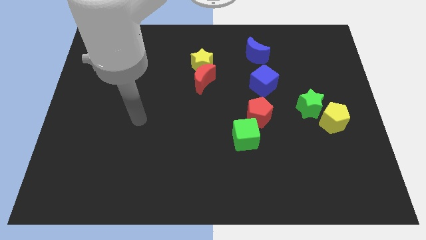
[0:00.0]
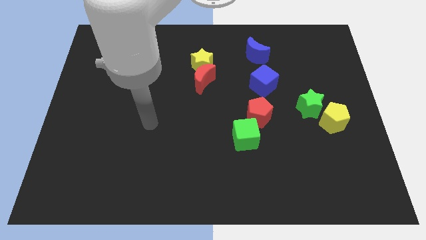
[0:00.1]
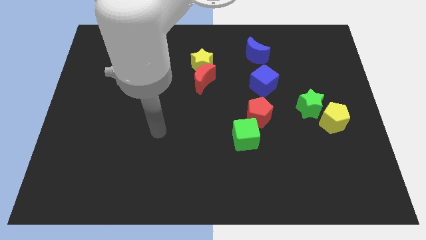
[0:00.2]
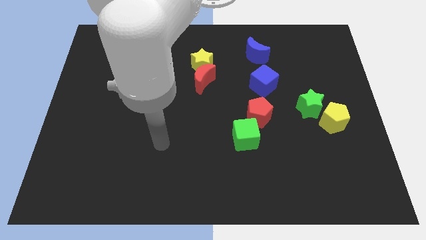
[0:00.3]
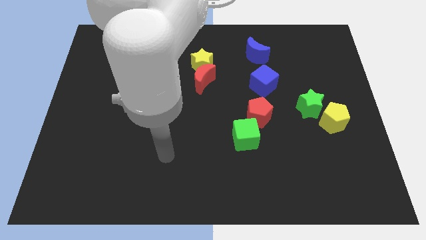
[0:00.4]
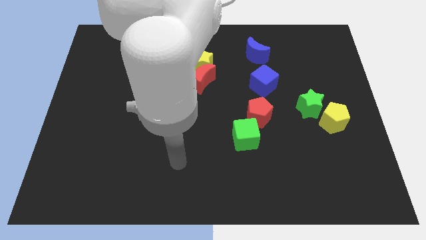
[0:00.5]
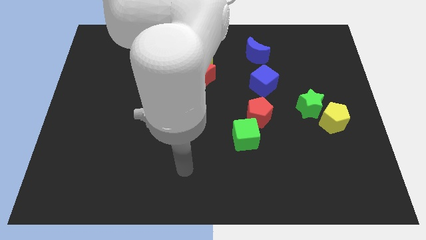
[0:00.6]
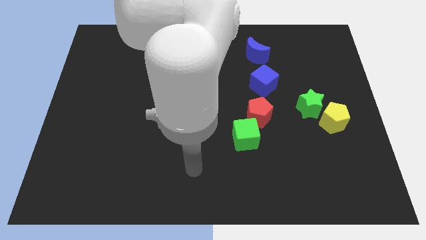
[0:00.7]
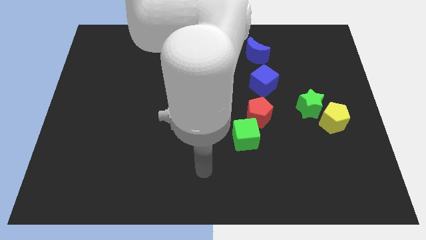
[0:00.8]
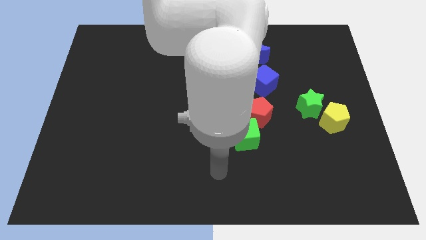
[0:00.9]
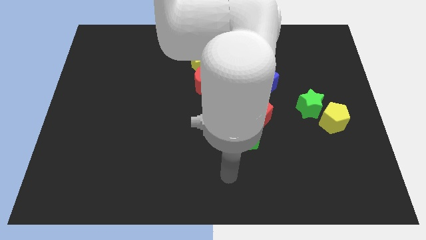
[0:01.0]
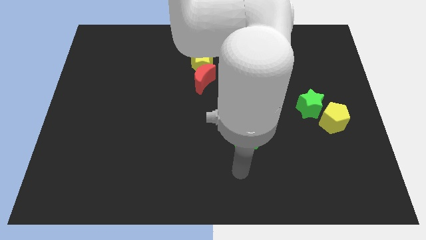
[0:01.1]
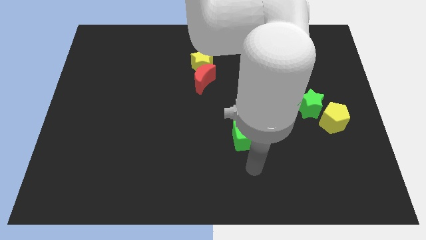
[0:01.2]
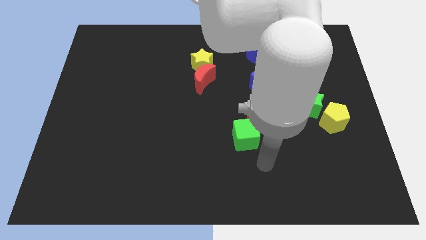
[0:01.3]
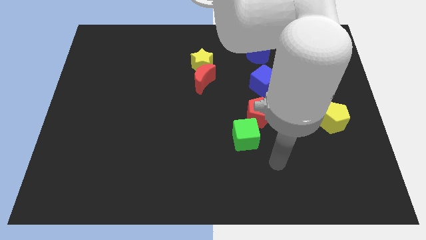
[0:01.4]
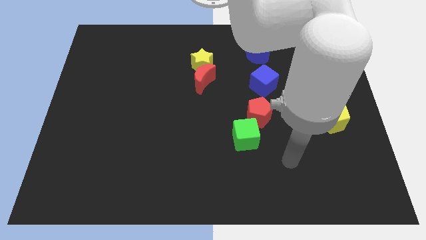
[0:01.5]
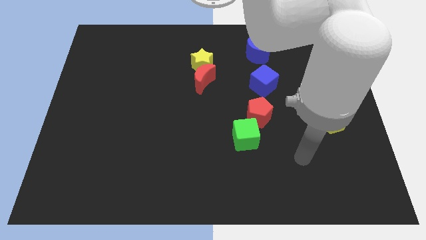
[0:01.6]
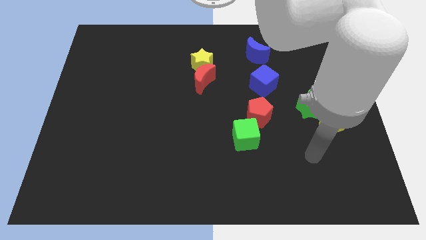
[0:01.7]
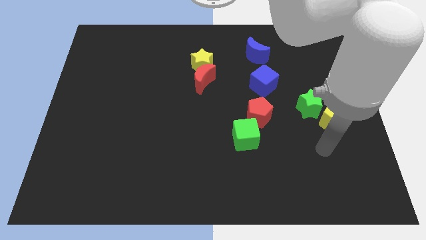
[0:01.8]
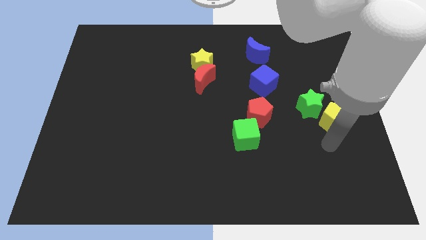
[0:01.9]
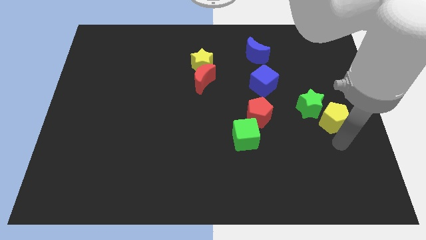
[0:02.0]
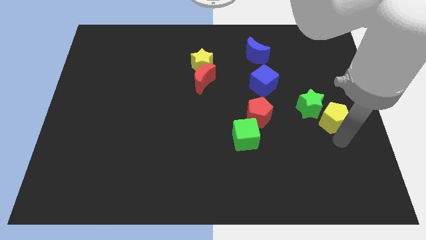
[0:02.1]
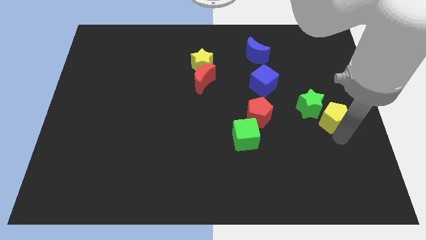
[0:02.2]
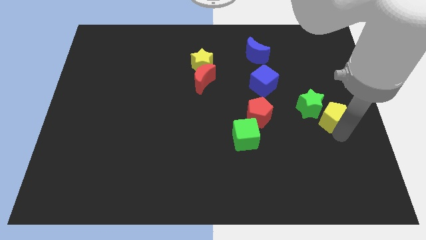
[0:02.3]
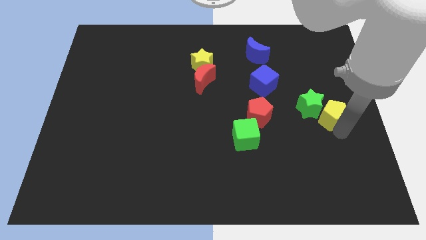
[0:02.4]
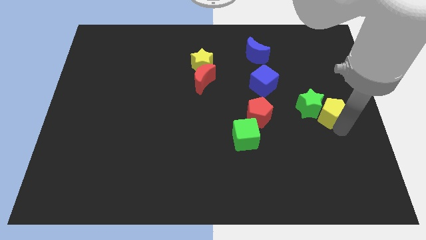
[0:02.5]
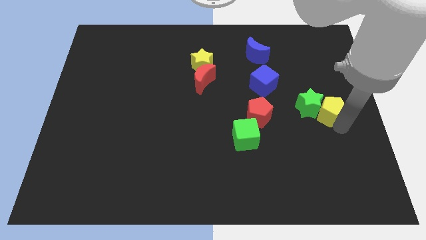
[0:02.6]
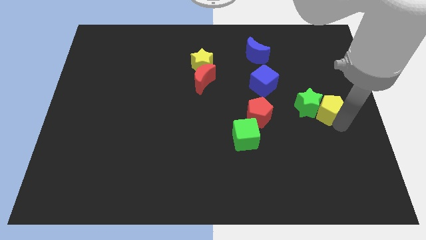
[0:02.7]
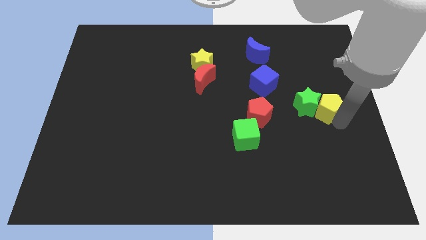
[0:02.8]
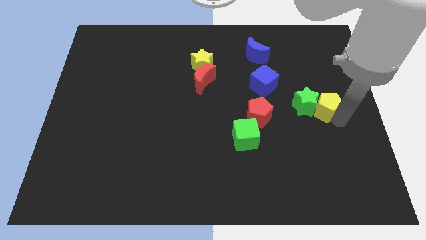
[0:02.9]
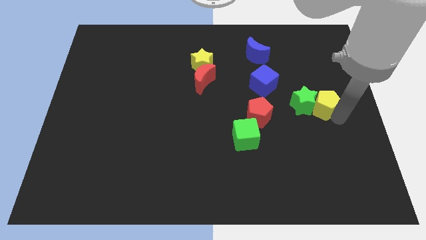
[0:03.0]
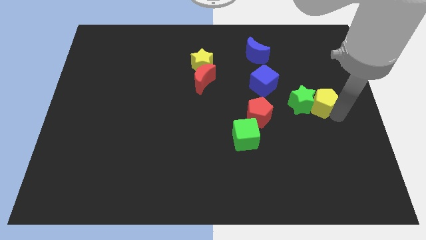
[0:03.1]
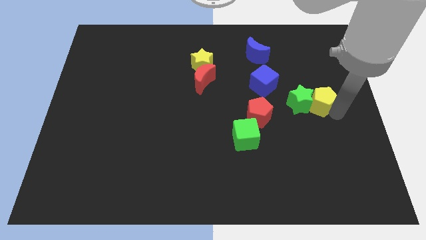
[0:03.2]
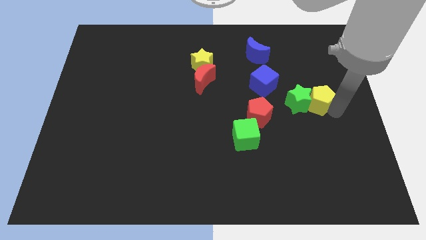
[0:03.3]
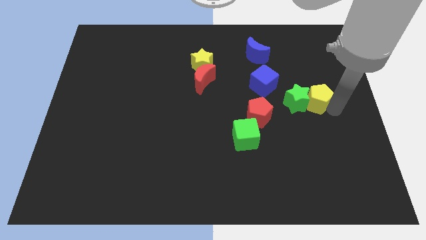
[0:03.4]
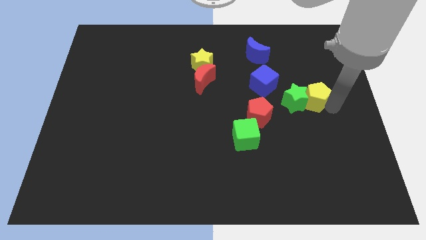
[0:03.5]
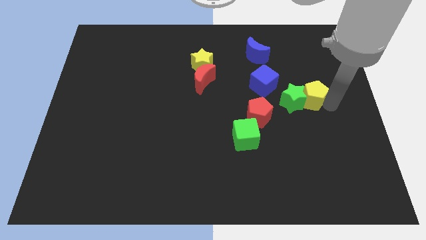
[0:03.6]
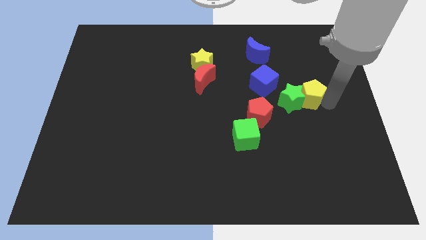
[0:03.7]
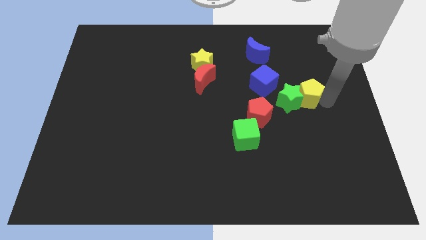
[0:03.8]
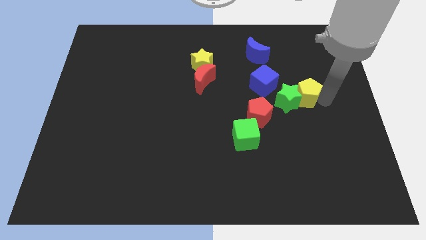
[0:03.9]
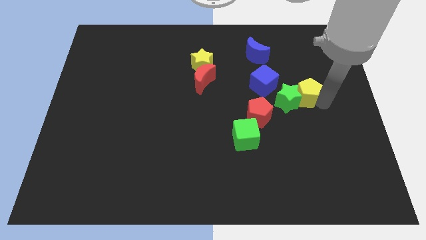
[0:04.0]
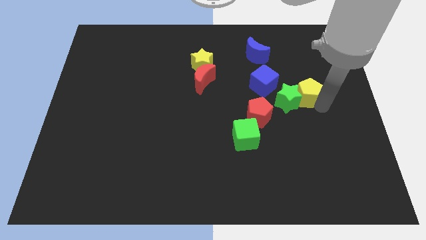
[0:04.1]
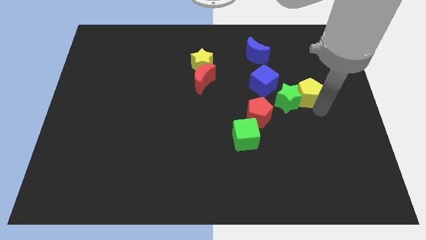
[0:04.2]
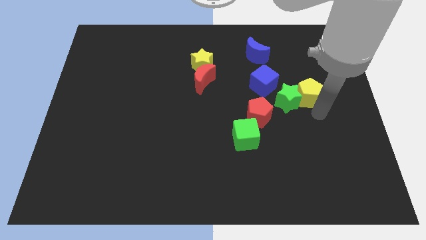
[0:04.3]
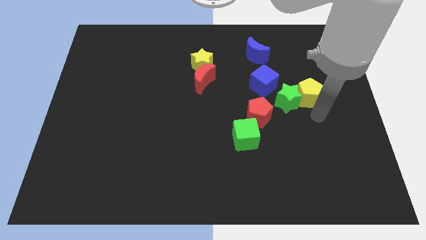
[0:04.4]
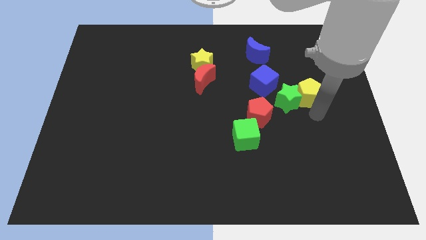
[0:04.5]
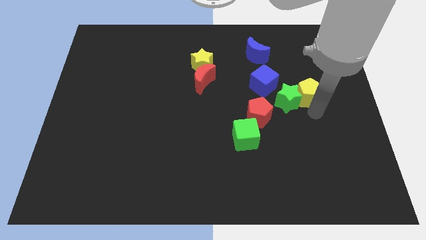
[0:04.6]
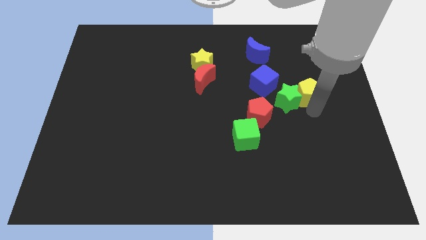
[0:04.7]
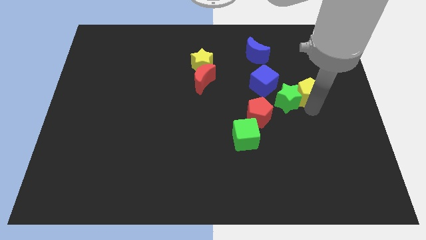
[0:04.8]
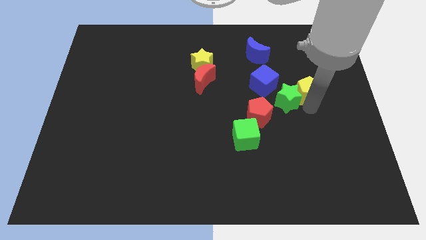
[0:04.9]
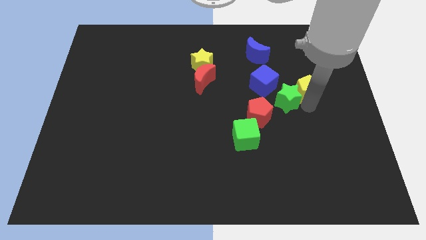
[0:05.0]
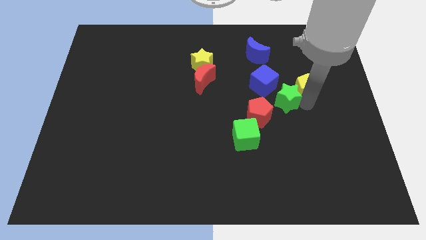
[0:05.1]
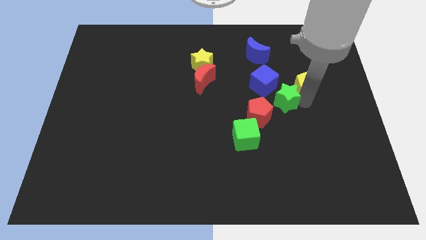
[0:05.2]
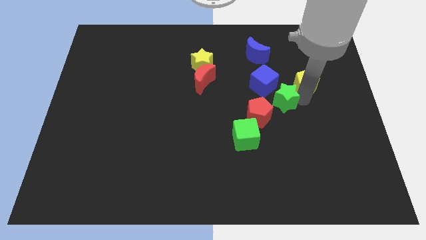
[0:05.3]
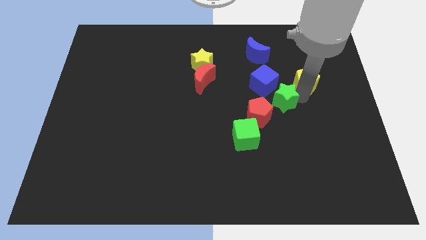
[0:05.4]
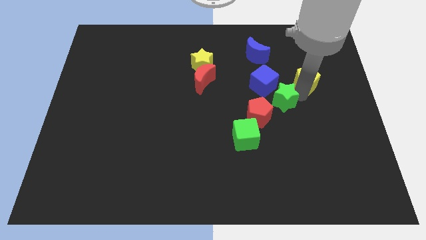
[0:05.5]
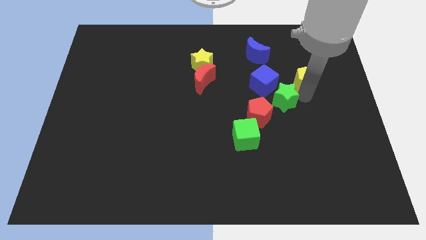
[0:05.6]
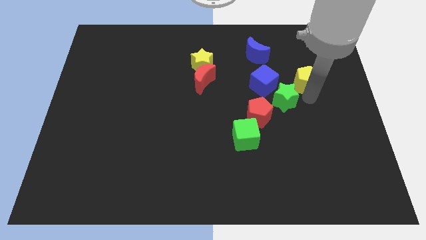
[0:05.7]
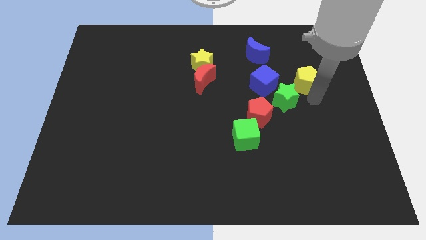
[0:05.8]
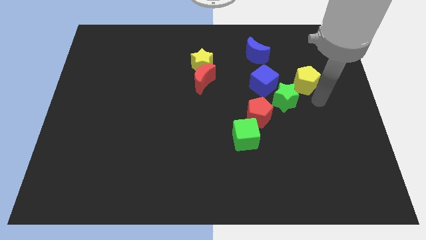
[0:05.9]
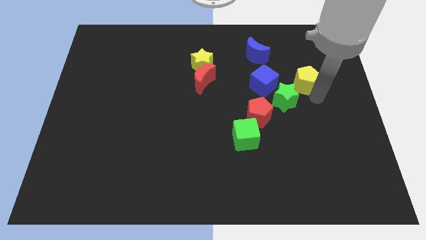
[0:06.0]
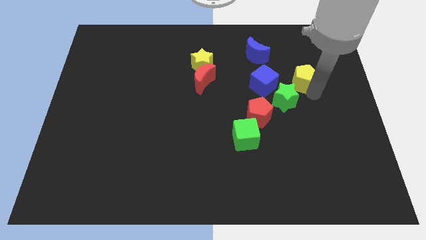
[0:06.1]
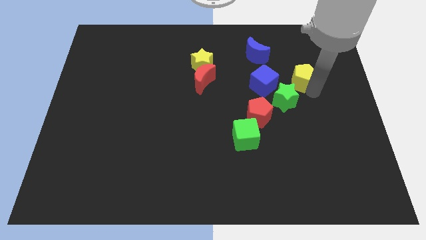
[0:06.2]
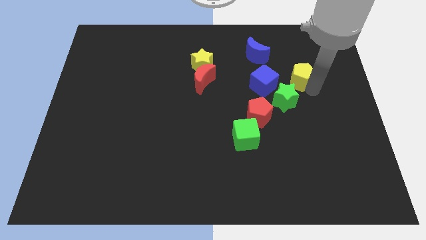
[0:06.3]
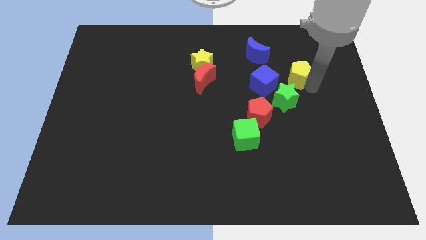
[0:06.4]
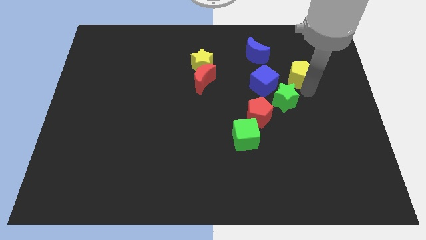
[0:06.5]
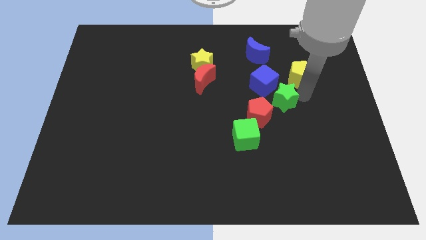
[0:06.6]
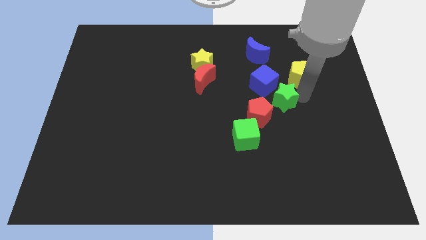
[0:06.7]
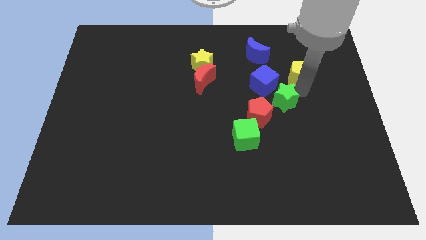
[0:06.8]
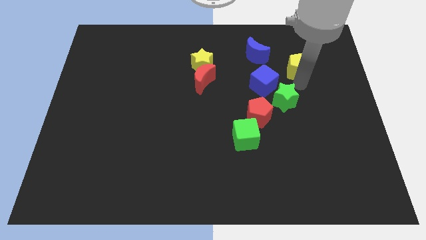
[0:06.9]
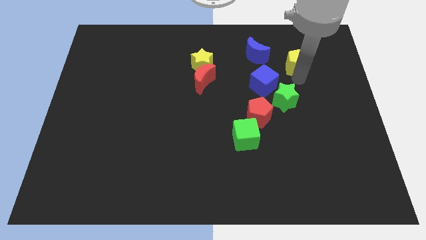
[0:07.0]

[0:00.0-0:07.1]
move the yellow pentagon to the right side of the blue moon
